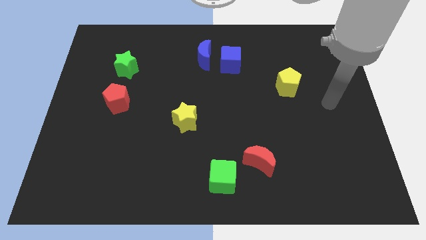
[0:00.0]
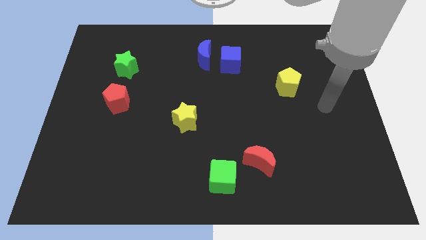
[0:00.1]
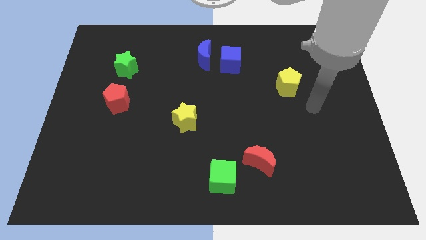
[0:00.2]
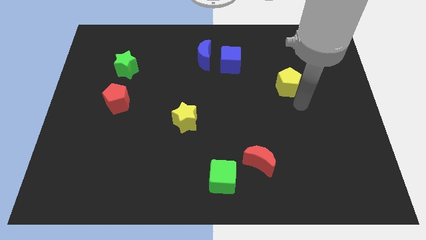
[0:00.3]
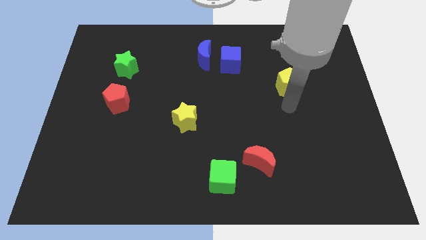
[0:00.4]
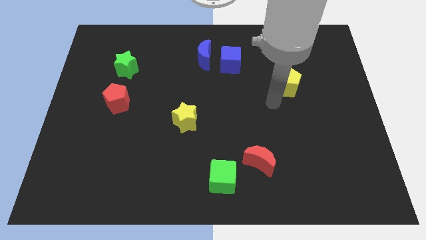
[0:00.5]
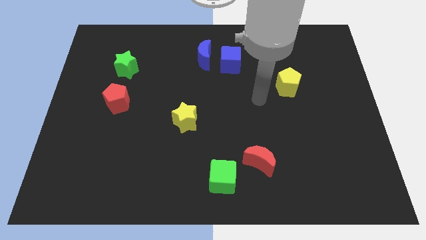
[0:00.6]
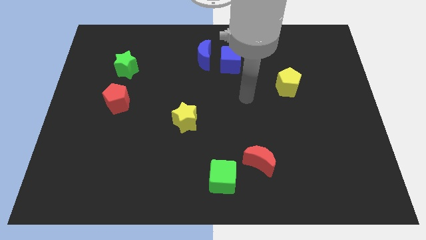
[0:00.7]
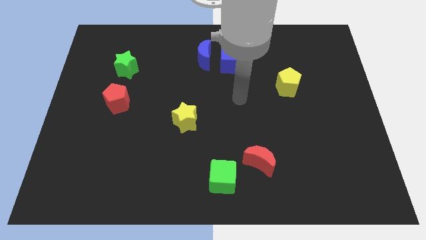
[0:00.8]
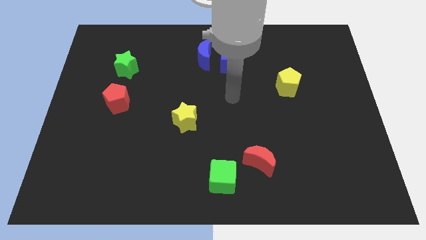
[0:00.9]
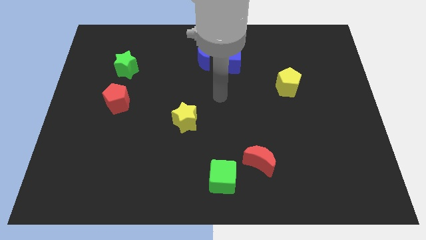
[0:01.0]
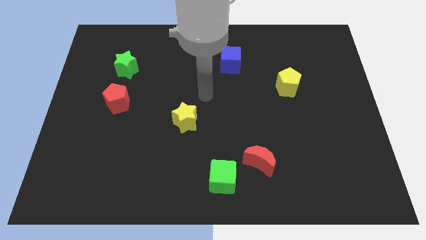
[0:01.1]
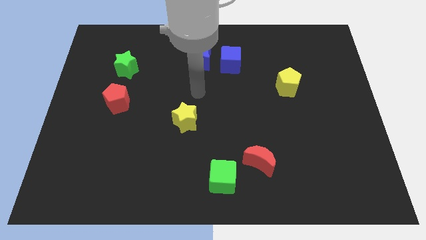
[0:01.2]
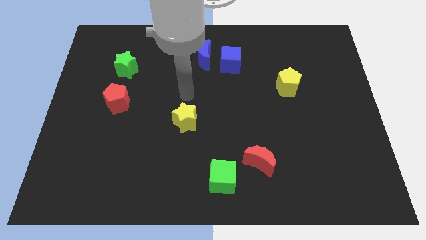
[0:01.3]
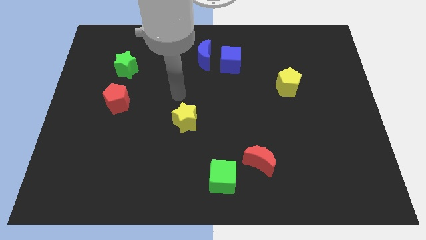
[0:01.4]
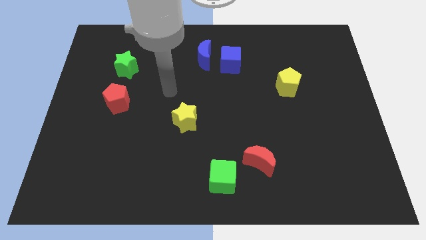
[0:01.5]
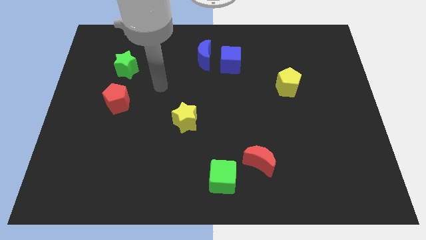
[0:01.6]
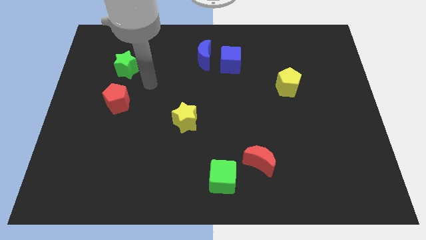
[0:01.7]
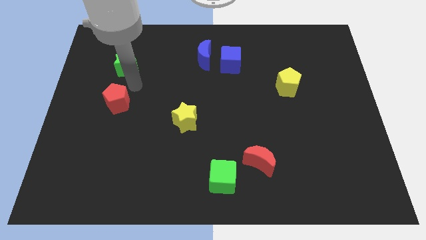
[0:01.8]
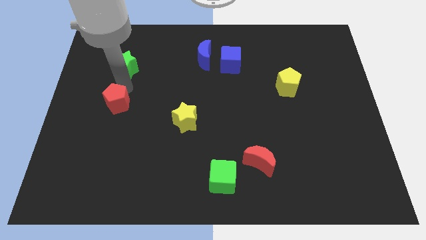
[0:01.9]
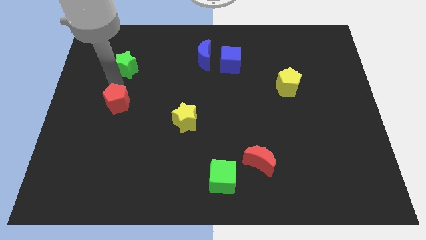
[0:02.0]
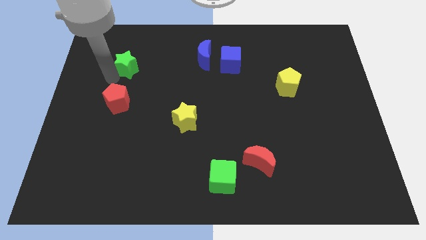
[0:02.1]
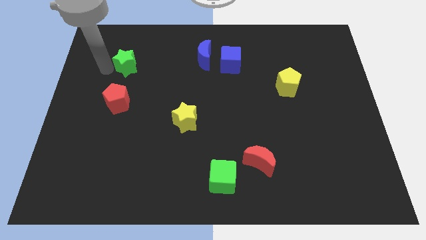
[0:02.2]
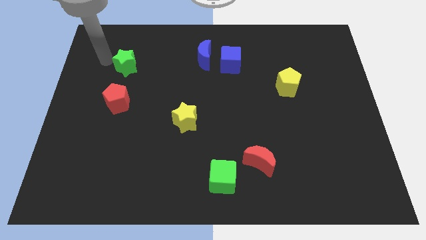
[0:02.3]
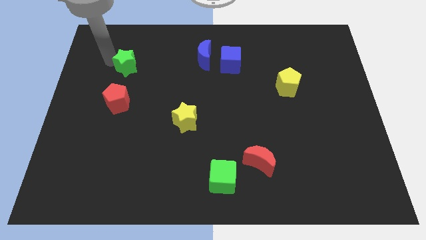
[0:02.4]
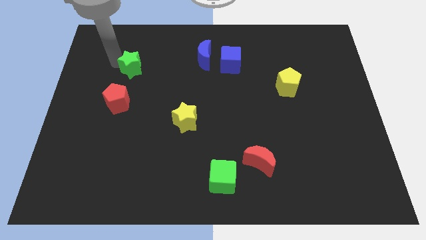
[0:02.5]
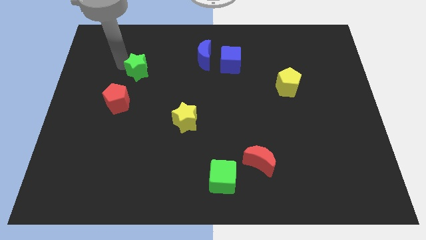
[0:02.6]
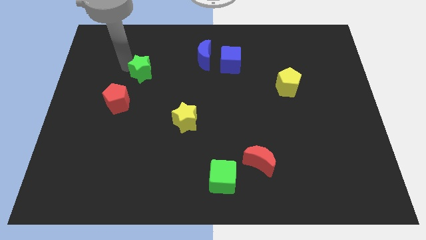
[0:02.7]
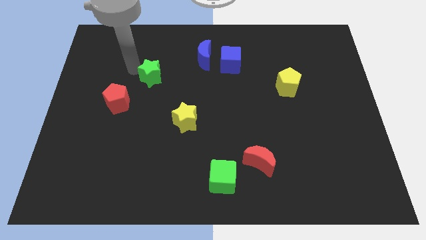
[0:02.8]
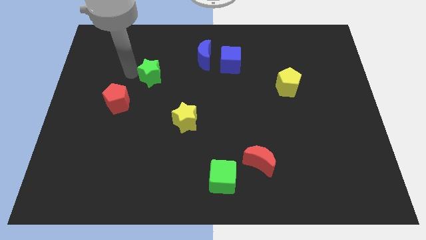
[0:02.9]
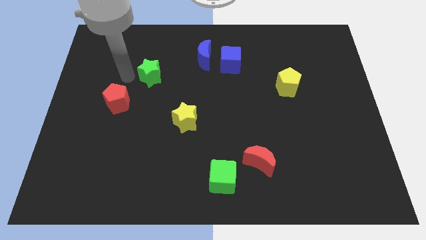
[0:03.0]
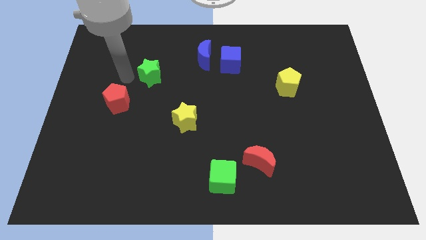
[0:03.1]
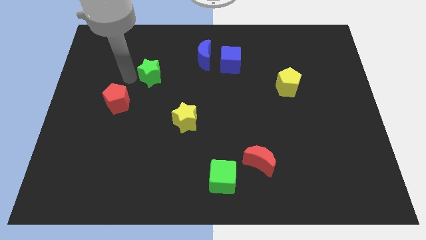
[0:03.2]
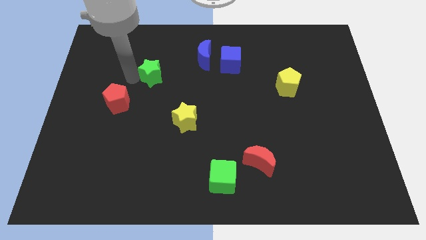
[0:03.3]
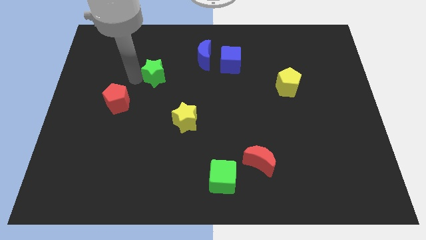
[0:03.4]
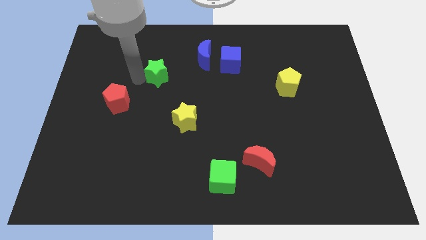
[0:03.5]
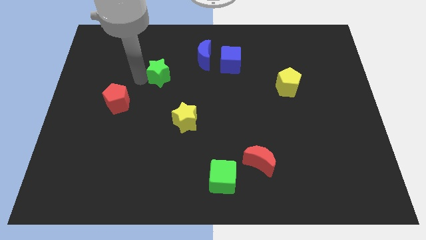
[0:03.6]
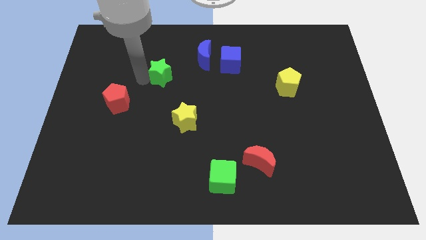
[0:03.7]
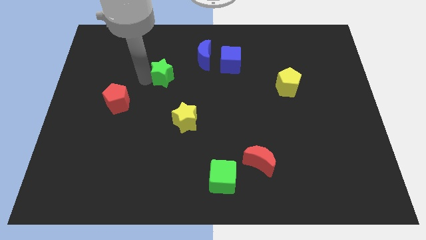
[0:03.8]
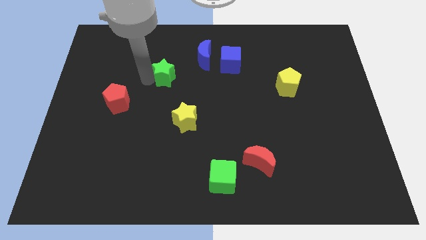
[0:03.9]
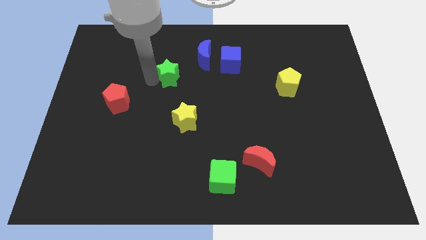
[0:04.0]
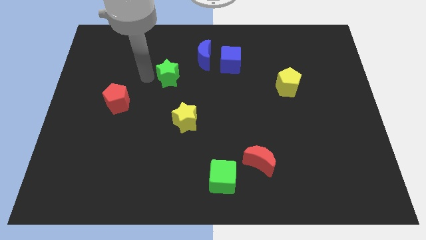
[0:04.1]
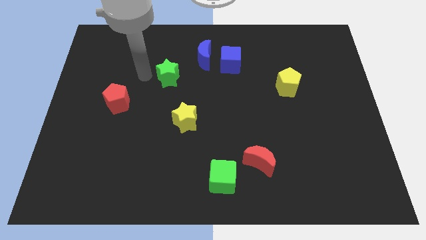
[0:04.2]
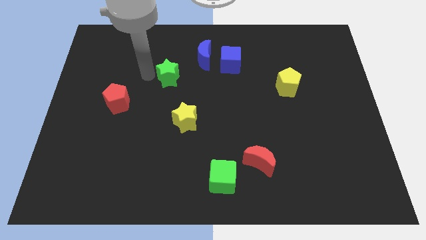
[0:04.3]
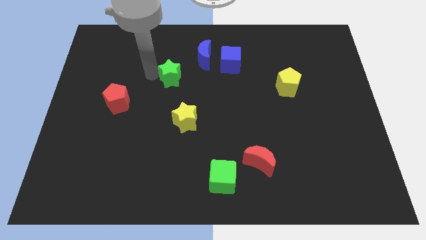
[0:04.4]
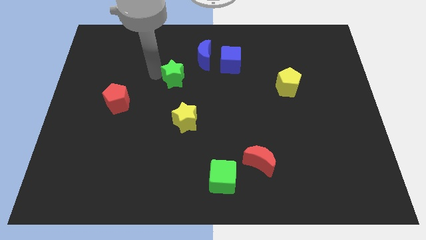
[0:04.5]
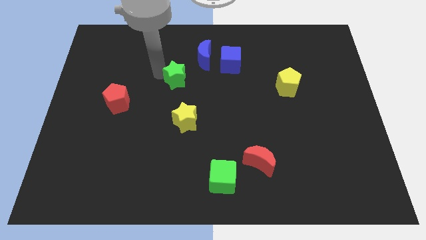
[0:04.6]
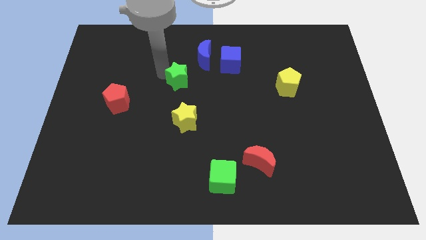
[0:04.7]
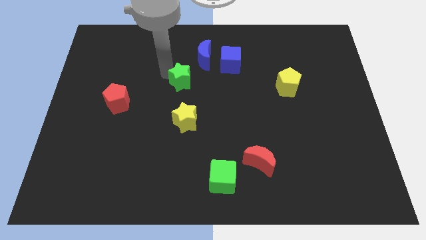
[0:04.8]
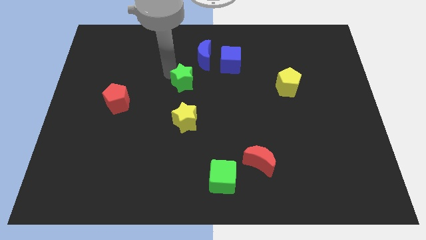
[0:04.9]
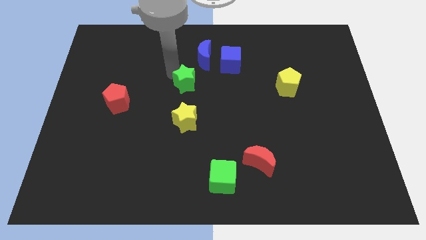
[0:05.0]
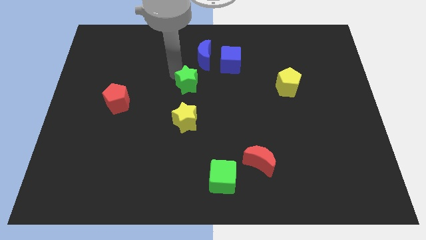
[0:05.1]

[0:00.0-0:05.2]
push the green star diagonally down and to the left of the blue cube

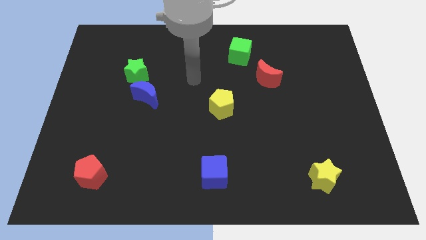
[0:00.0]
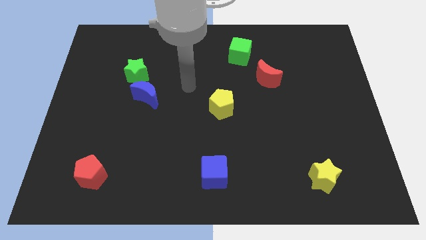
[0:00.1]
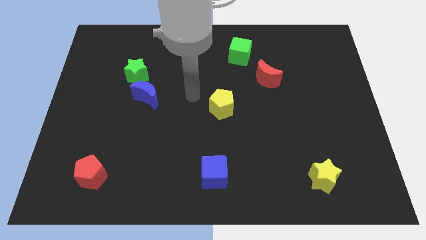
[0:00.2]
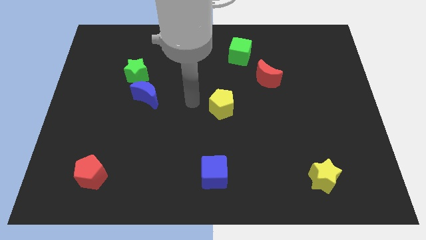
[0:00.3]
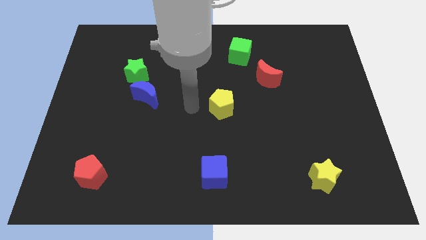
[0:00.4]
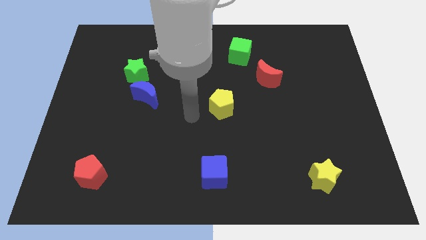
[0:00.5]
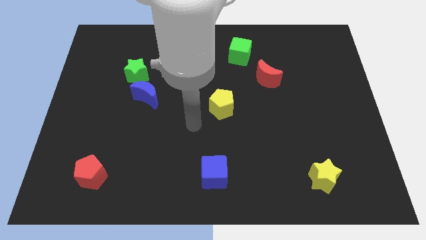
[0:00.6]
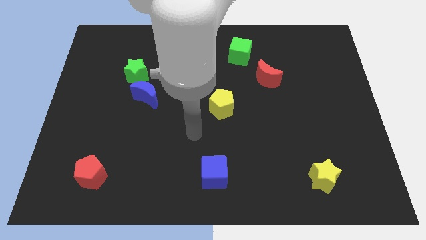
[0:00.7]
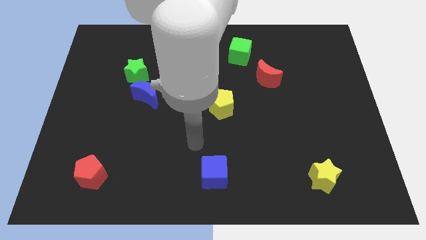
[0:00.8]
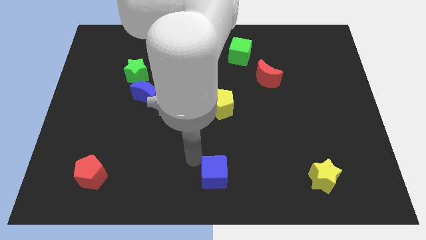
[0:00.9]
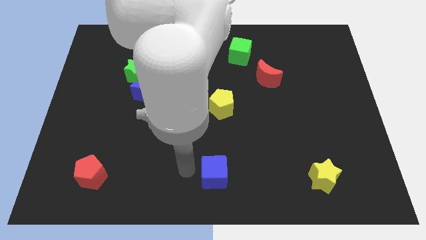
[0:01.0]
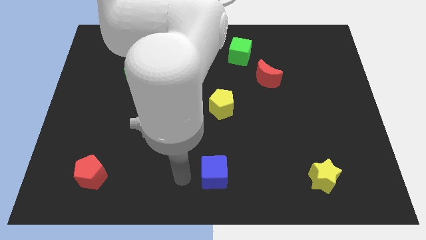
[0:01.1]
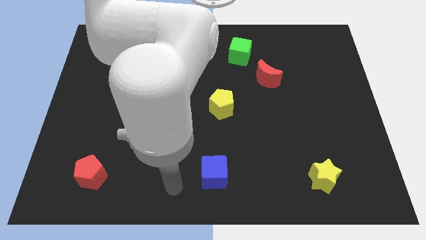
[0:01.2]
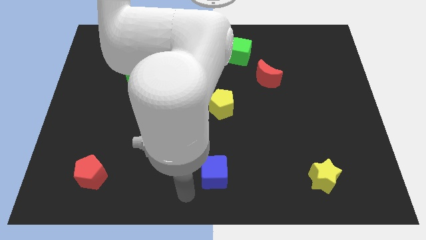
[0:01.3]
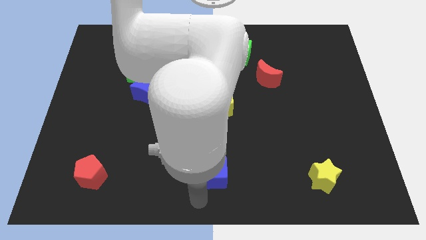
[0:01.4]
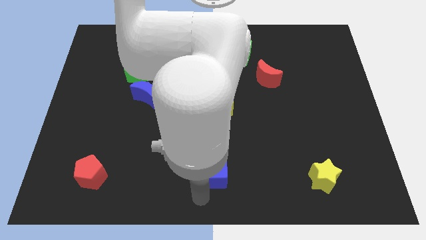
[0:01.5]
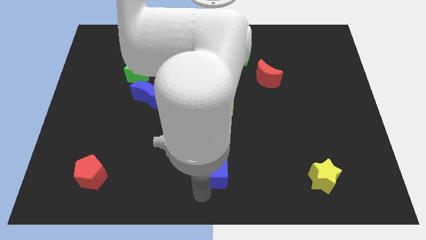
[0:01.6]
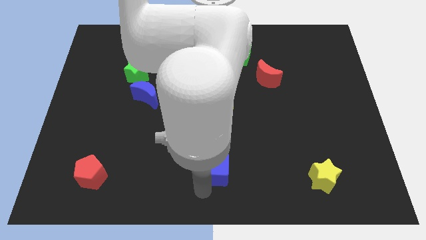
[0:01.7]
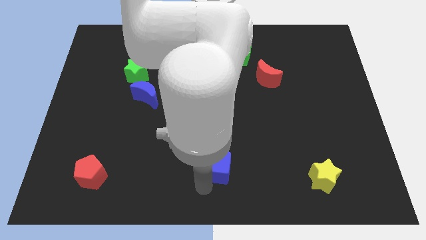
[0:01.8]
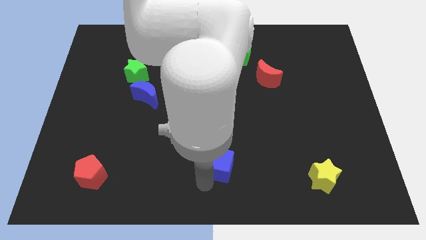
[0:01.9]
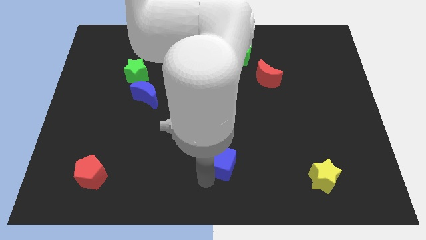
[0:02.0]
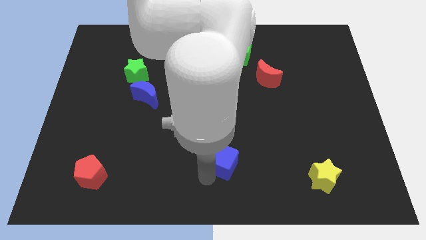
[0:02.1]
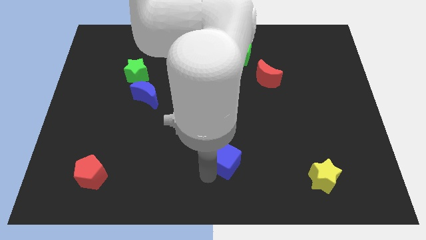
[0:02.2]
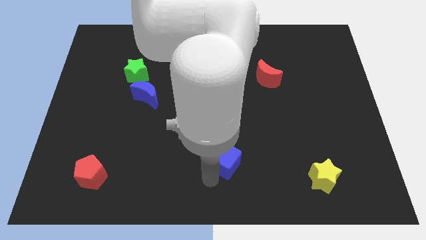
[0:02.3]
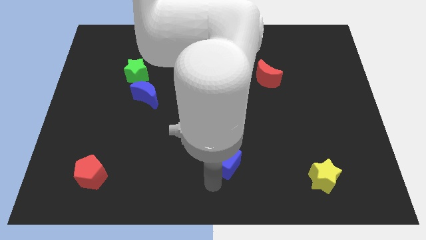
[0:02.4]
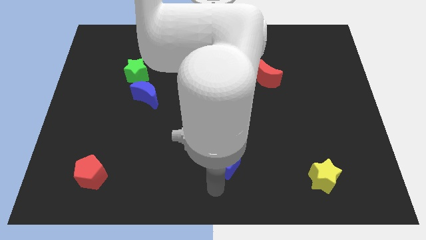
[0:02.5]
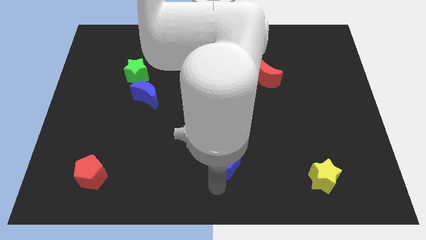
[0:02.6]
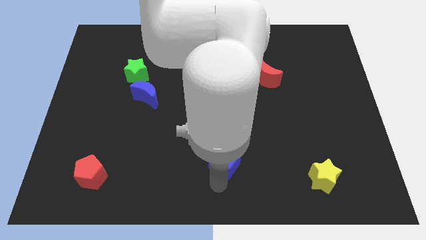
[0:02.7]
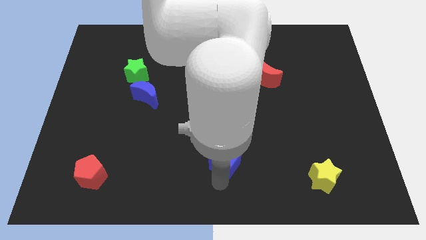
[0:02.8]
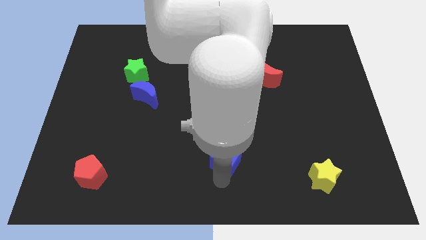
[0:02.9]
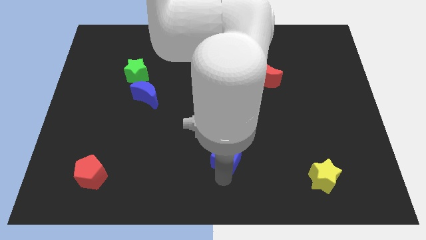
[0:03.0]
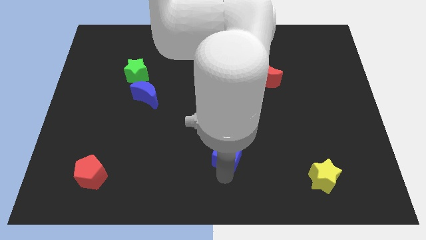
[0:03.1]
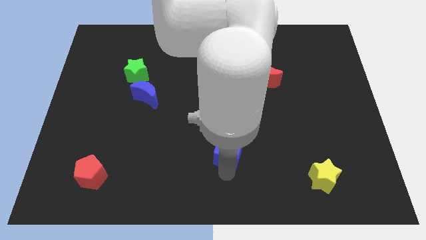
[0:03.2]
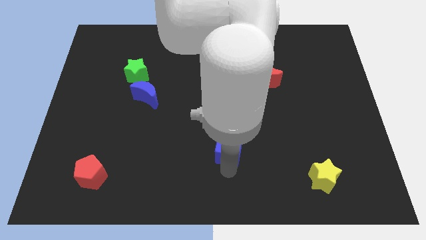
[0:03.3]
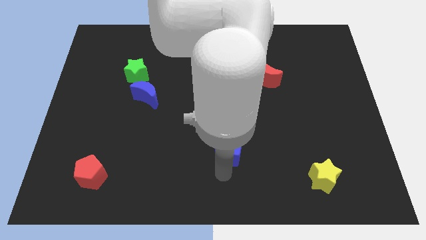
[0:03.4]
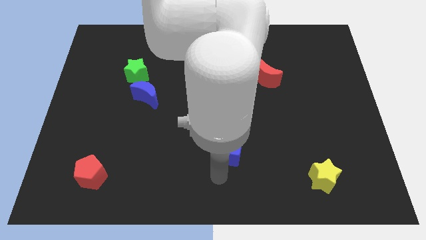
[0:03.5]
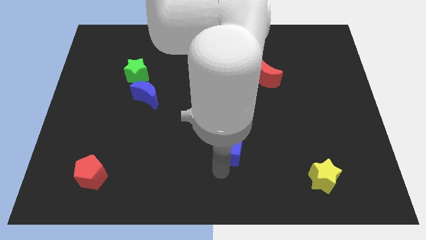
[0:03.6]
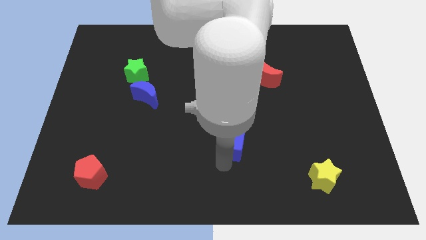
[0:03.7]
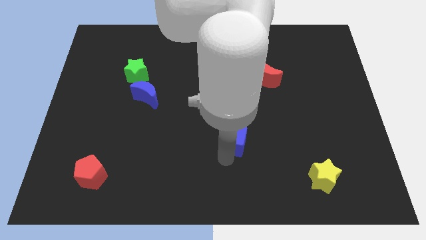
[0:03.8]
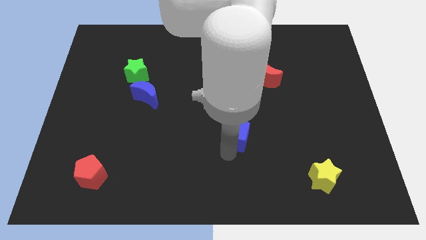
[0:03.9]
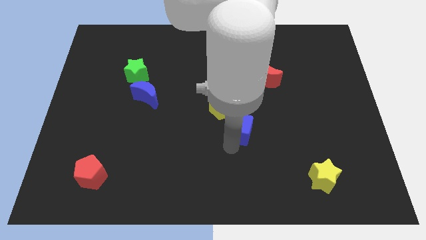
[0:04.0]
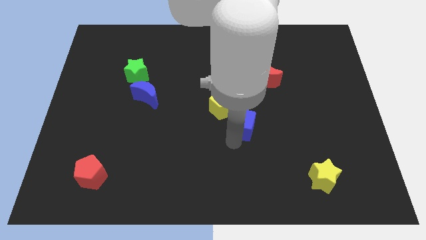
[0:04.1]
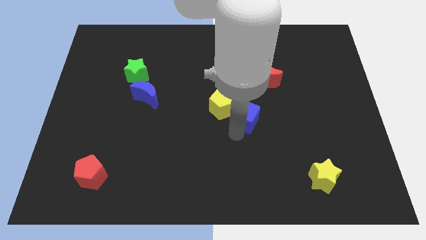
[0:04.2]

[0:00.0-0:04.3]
push the blue cube to the right of the yellow pentagon
